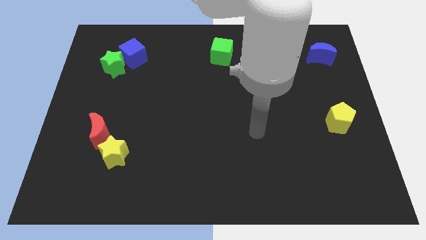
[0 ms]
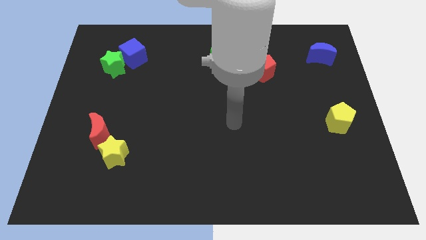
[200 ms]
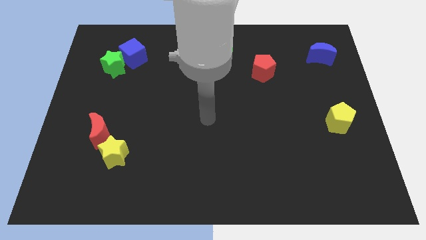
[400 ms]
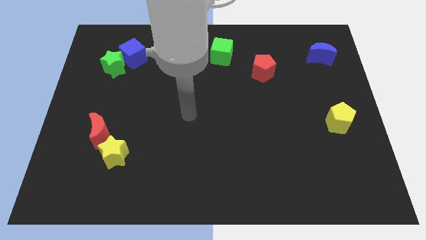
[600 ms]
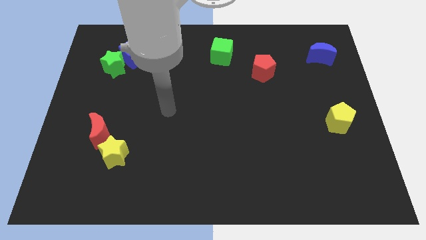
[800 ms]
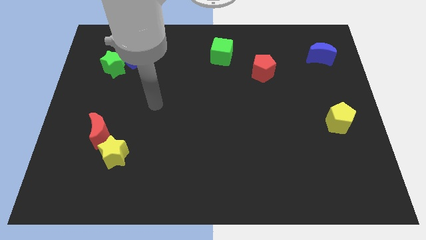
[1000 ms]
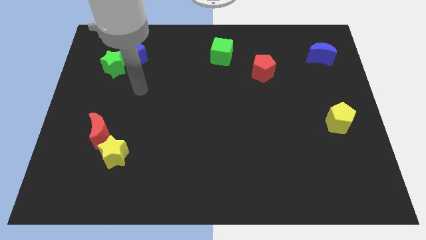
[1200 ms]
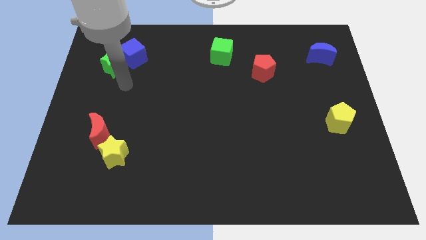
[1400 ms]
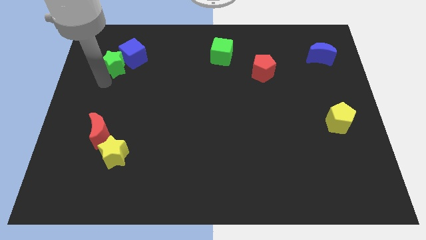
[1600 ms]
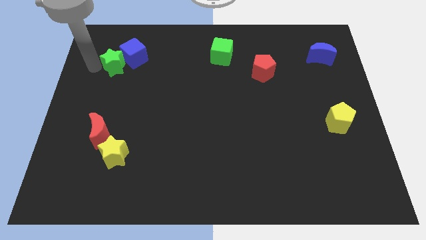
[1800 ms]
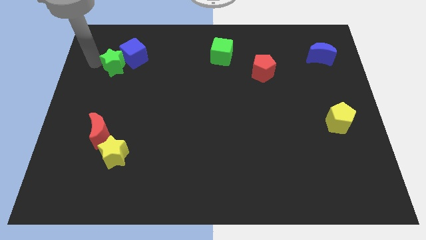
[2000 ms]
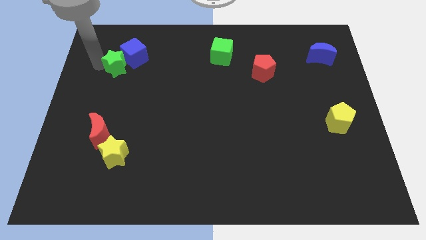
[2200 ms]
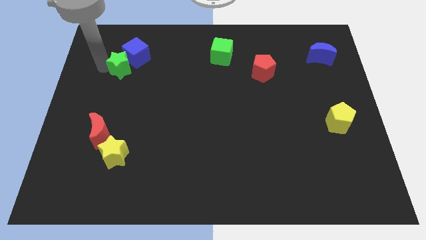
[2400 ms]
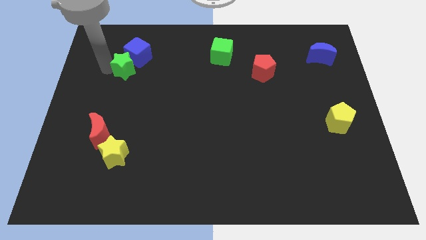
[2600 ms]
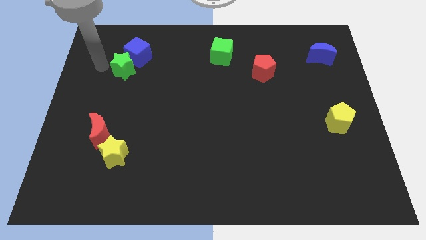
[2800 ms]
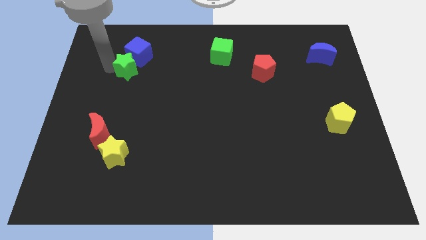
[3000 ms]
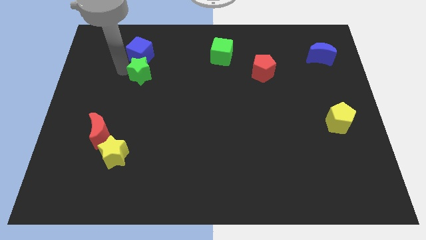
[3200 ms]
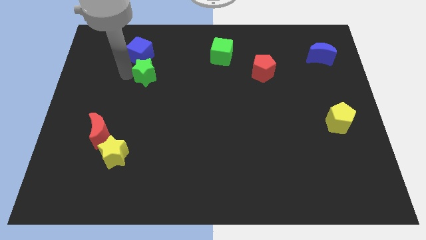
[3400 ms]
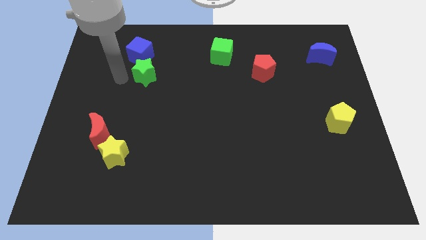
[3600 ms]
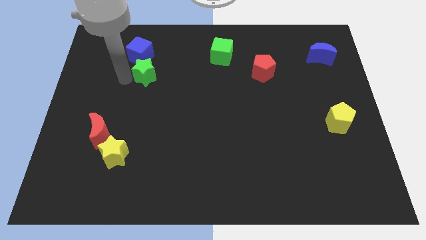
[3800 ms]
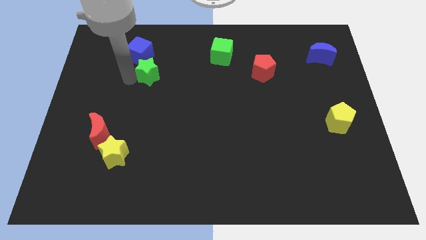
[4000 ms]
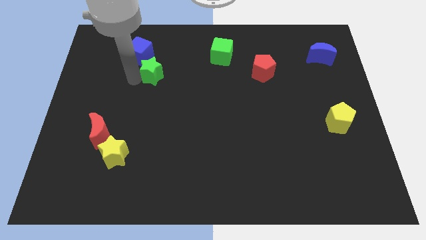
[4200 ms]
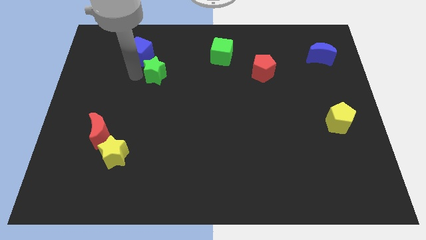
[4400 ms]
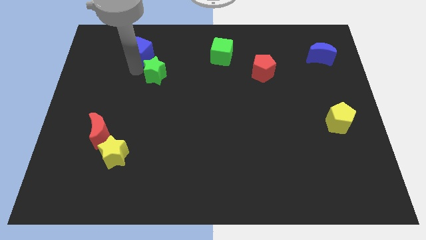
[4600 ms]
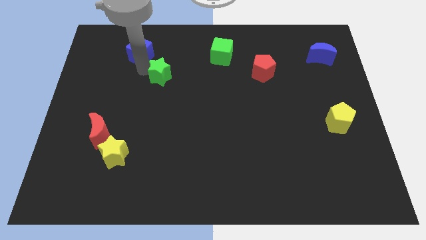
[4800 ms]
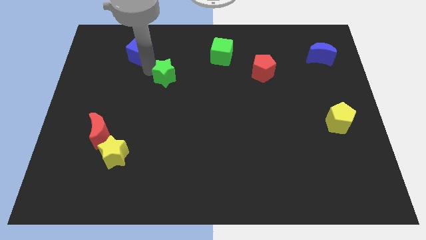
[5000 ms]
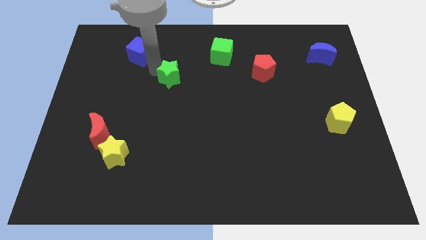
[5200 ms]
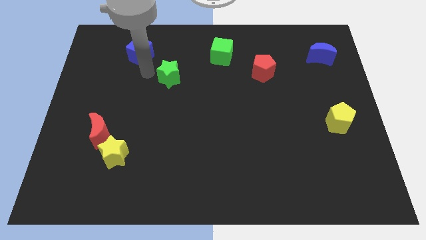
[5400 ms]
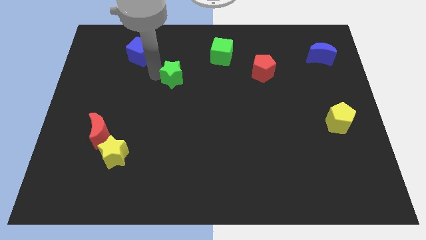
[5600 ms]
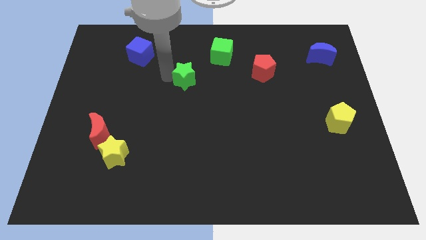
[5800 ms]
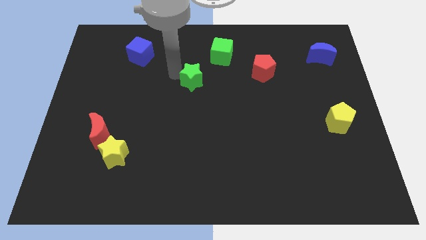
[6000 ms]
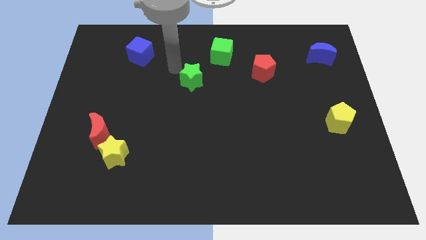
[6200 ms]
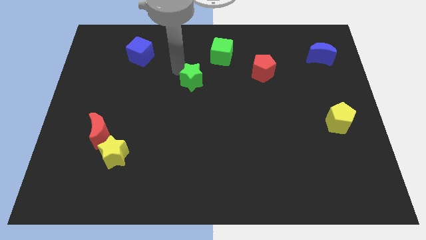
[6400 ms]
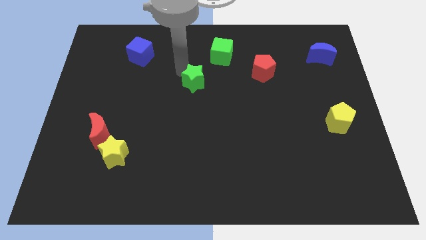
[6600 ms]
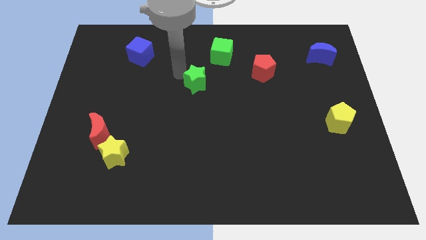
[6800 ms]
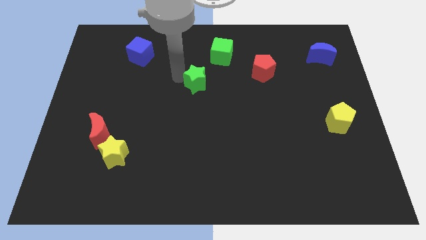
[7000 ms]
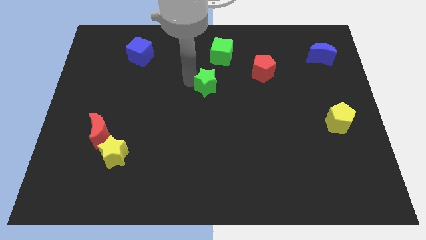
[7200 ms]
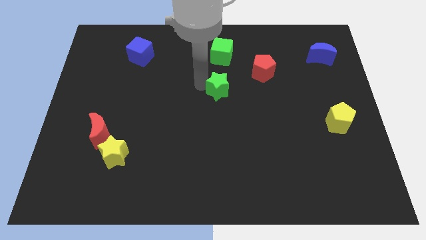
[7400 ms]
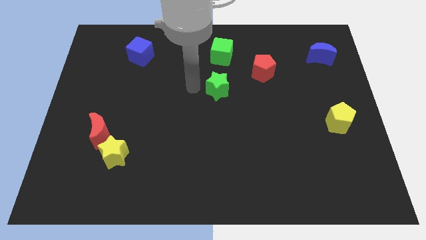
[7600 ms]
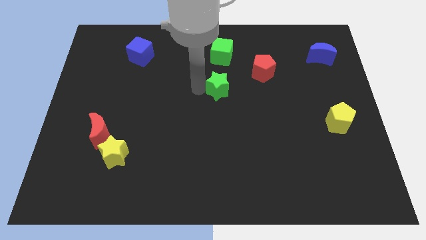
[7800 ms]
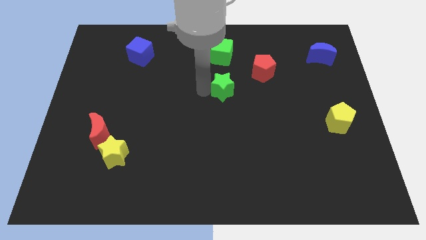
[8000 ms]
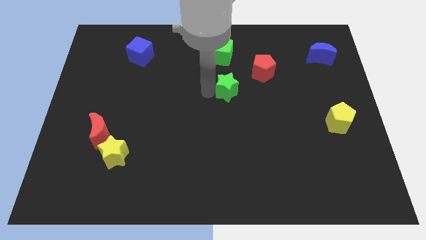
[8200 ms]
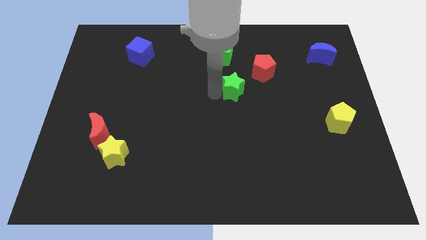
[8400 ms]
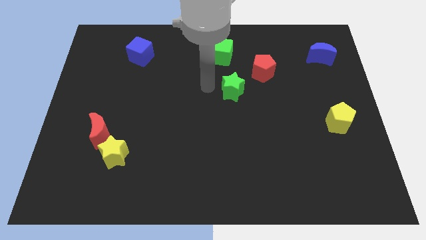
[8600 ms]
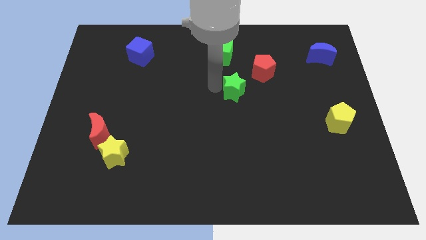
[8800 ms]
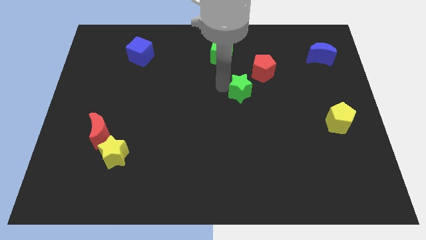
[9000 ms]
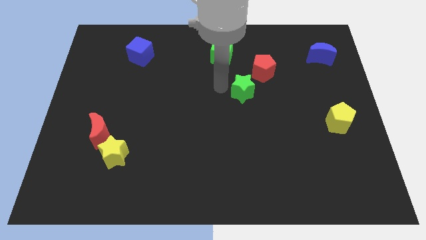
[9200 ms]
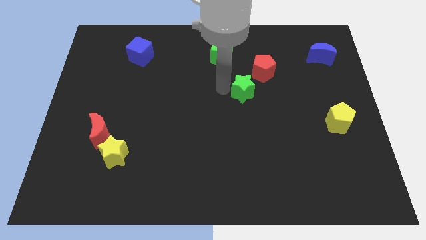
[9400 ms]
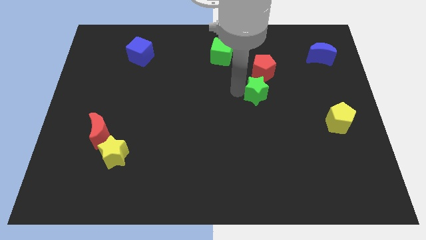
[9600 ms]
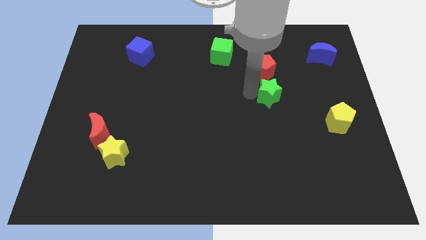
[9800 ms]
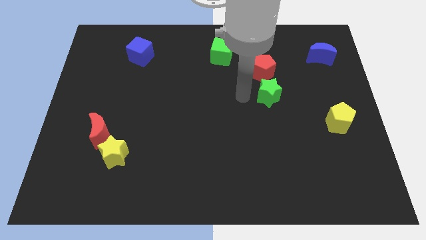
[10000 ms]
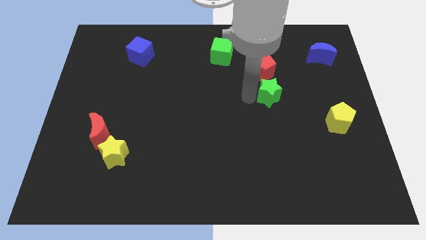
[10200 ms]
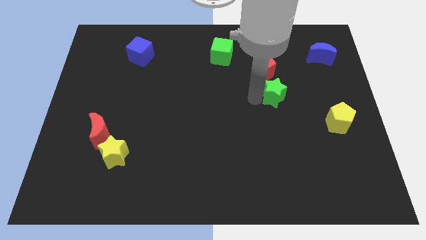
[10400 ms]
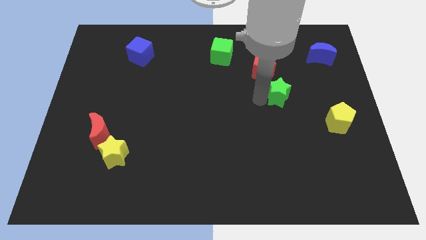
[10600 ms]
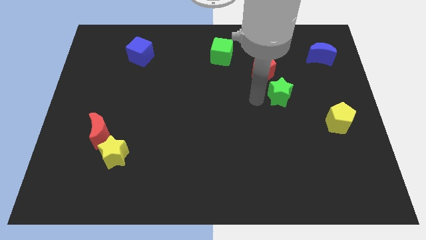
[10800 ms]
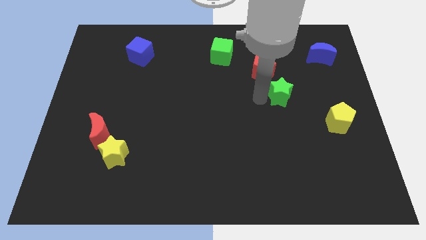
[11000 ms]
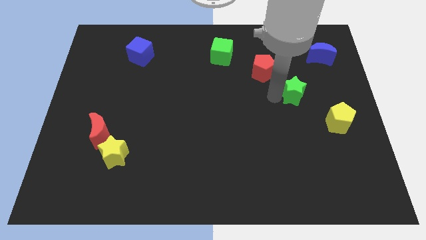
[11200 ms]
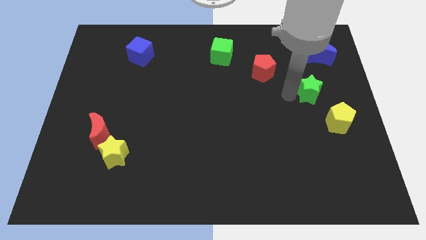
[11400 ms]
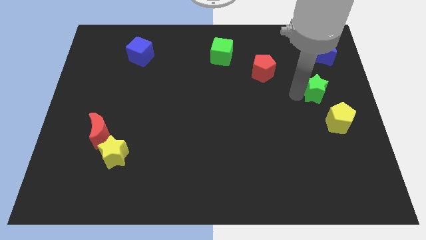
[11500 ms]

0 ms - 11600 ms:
push the green star to the top side of the yellow pentagon
